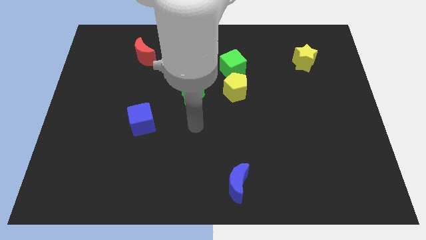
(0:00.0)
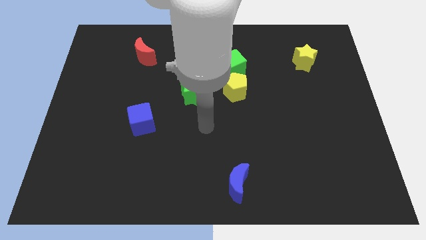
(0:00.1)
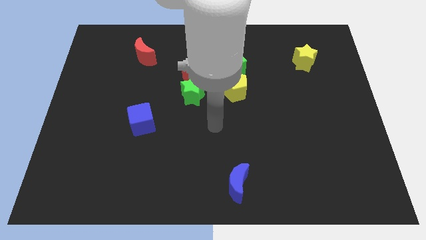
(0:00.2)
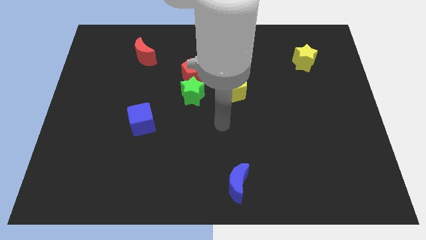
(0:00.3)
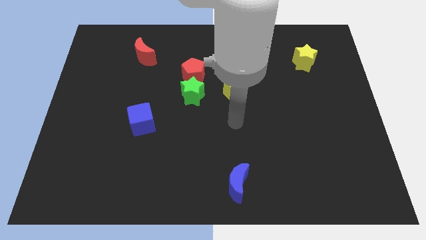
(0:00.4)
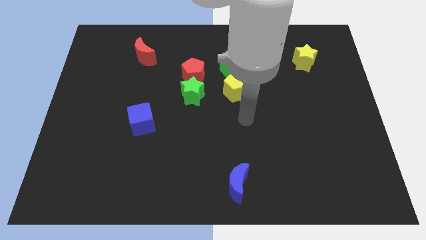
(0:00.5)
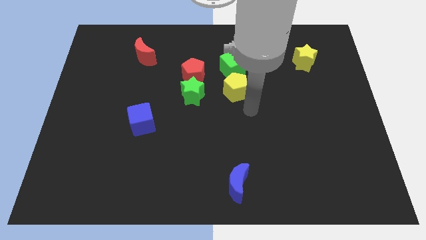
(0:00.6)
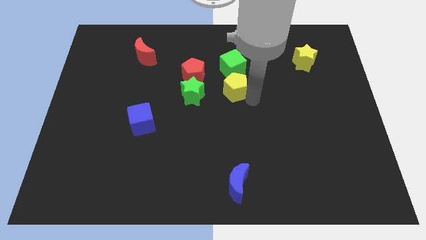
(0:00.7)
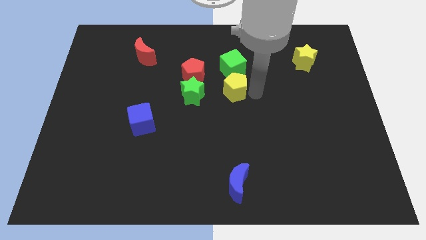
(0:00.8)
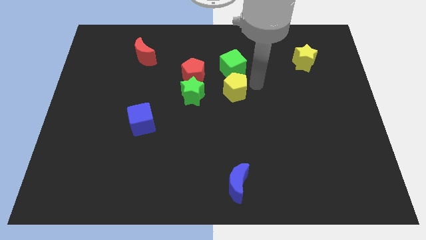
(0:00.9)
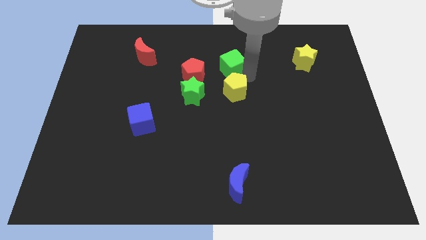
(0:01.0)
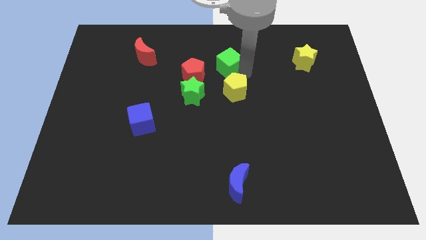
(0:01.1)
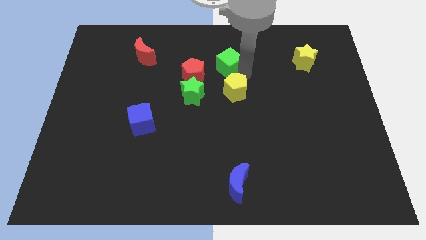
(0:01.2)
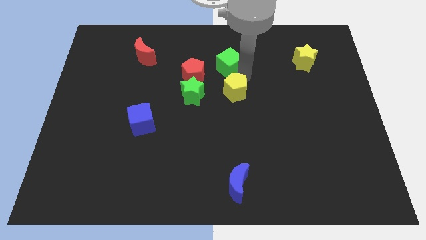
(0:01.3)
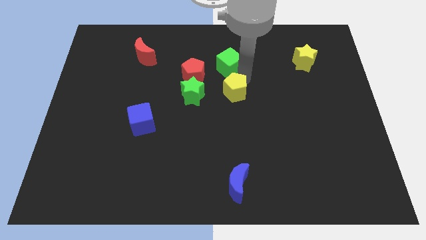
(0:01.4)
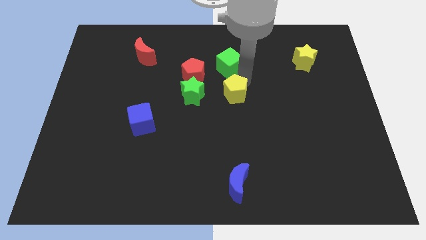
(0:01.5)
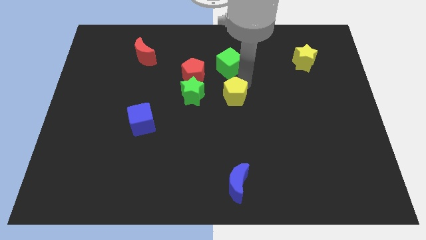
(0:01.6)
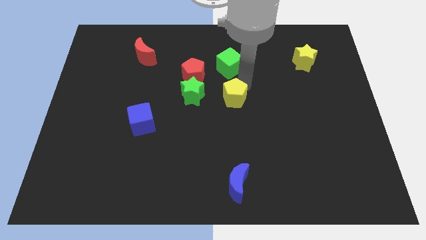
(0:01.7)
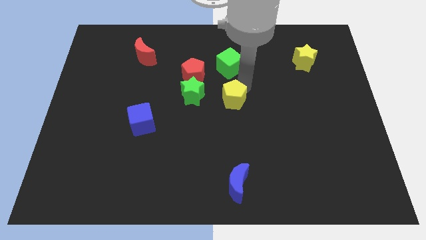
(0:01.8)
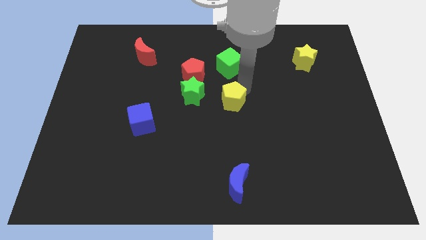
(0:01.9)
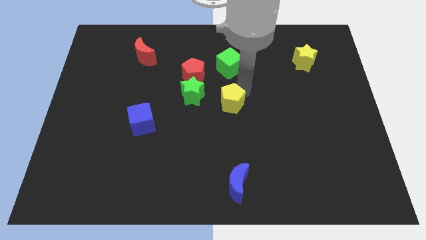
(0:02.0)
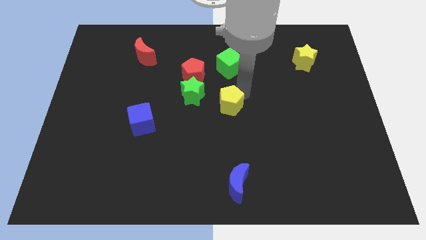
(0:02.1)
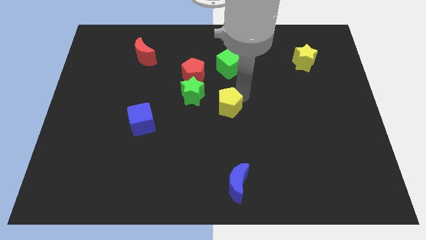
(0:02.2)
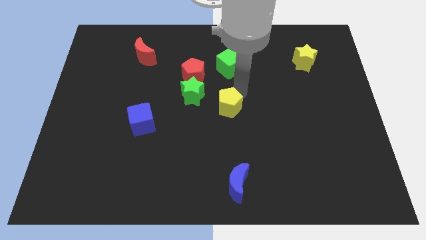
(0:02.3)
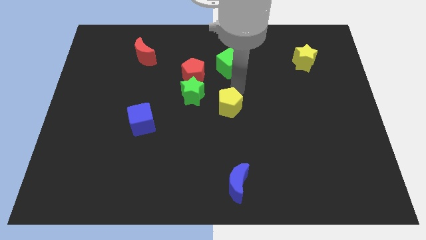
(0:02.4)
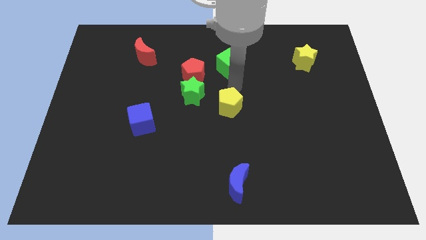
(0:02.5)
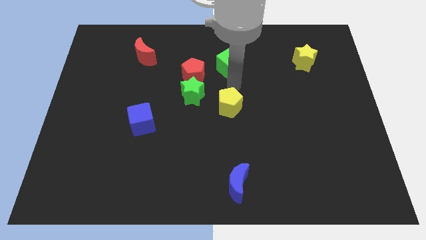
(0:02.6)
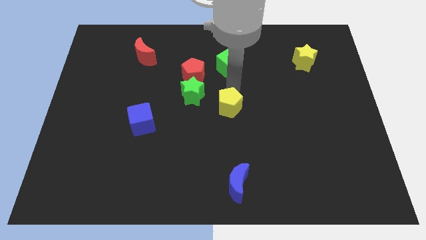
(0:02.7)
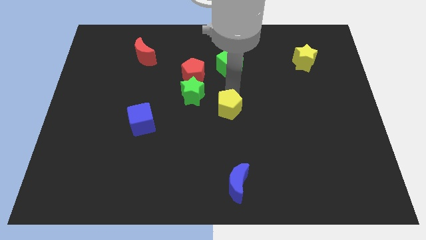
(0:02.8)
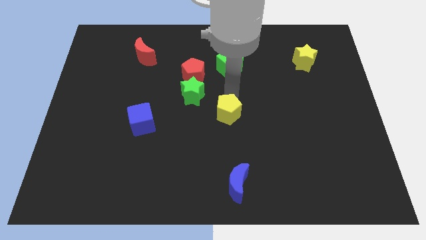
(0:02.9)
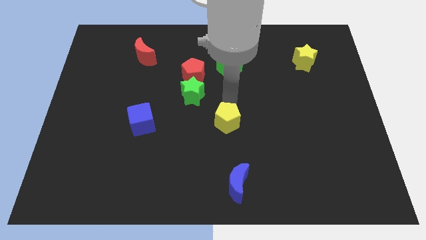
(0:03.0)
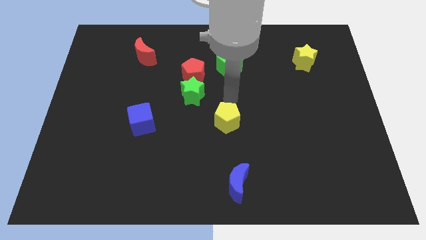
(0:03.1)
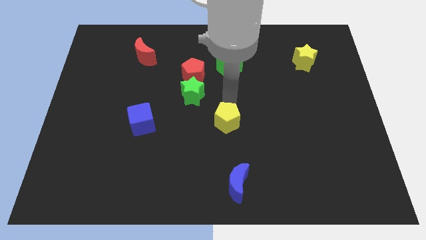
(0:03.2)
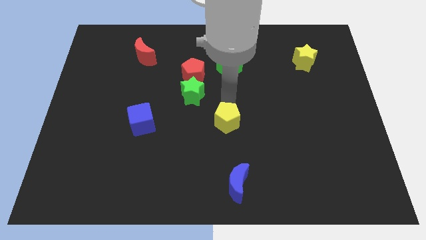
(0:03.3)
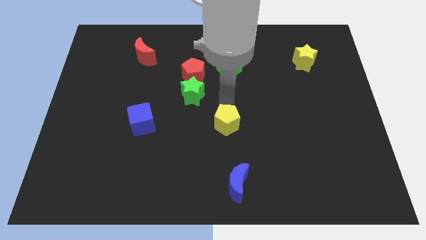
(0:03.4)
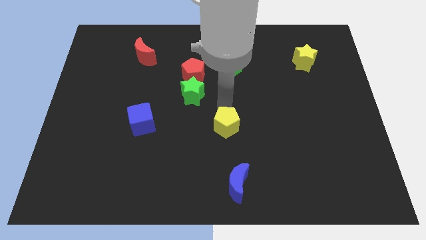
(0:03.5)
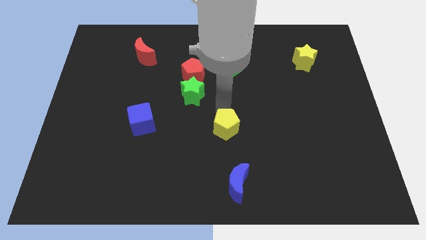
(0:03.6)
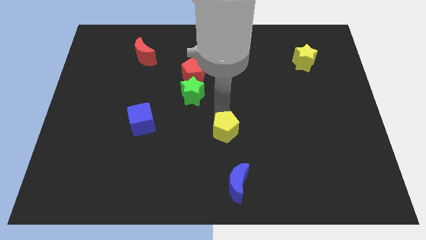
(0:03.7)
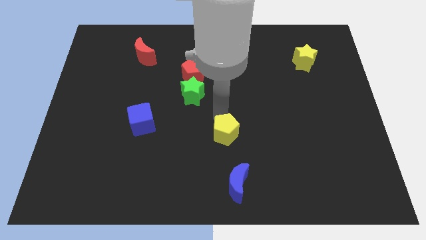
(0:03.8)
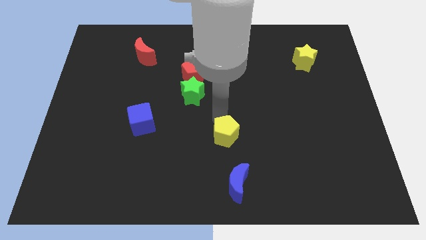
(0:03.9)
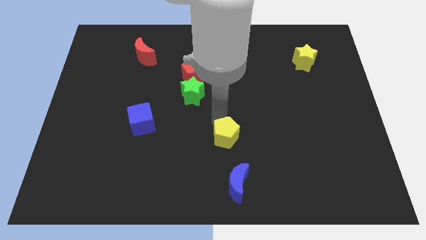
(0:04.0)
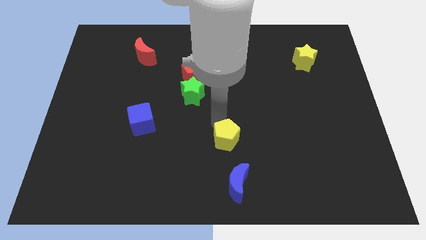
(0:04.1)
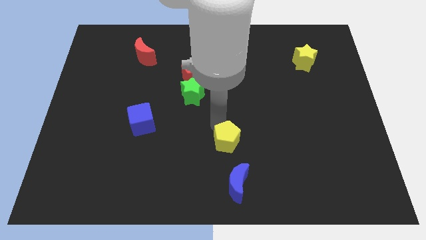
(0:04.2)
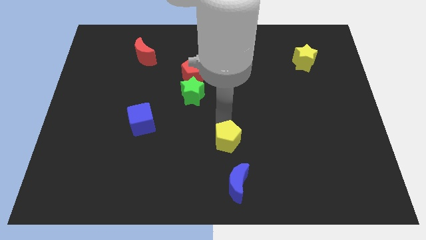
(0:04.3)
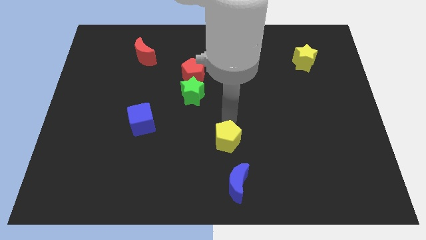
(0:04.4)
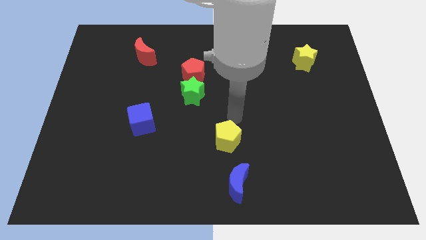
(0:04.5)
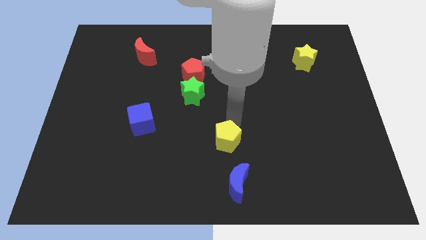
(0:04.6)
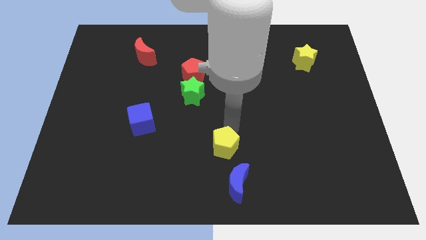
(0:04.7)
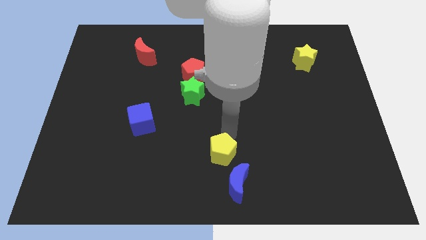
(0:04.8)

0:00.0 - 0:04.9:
slide the yellow pentagon to the bottom

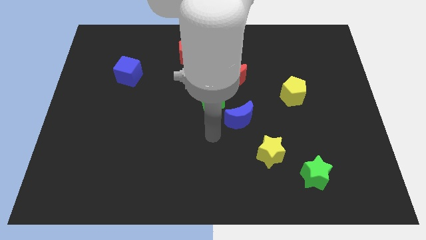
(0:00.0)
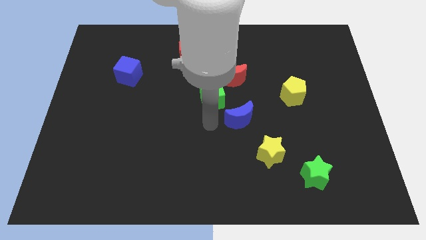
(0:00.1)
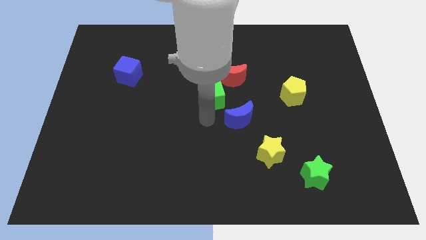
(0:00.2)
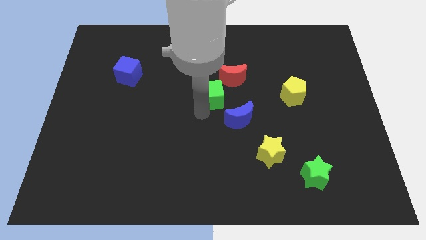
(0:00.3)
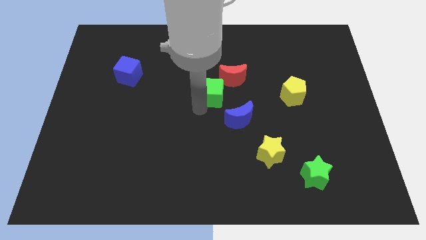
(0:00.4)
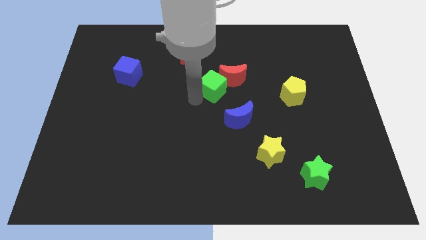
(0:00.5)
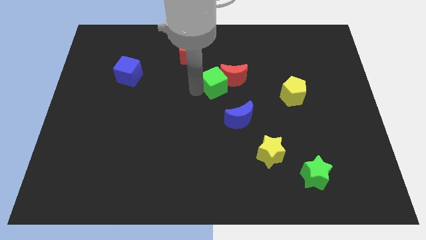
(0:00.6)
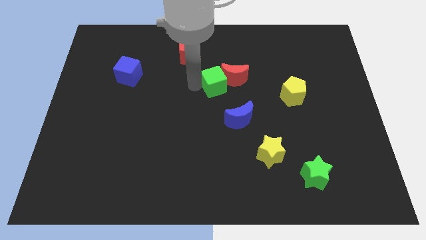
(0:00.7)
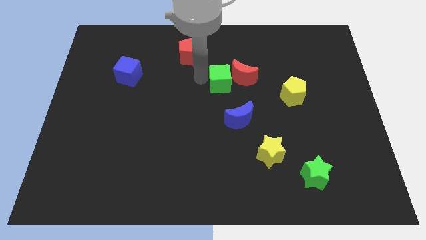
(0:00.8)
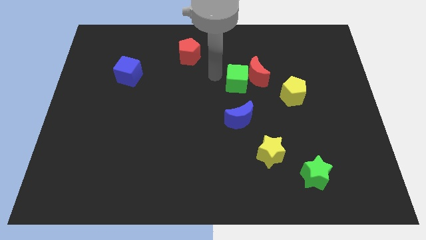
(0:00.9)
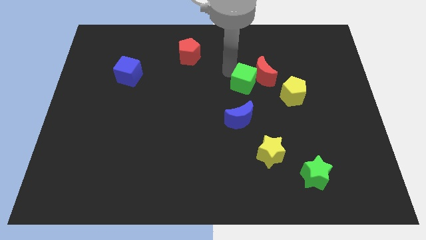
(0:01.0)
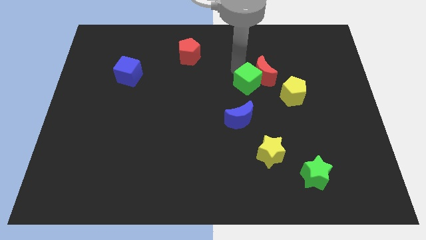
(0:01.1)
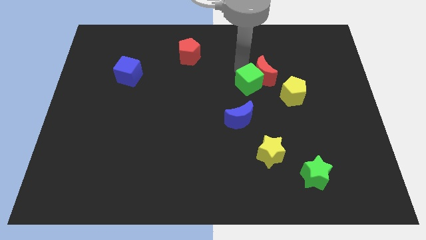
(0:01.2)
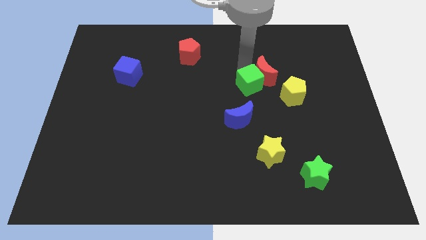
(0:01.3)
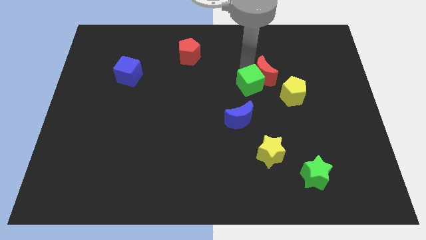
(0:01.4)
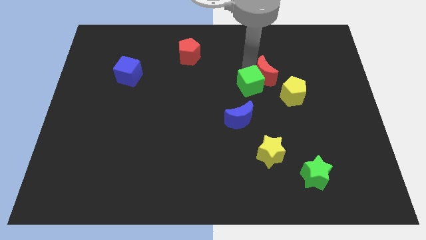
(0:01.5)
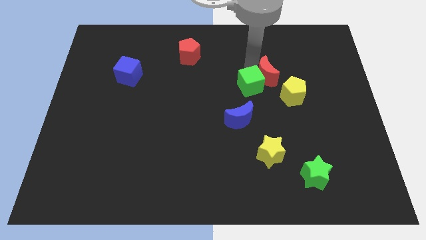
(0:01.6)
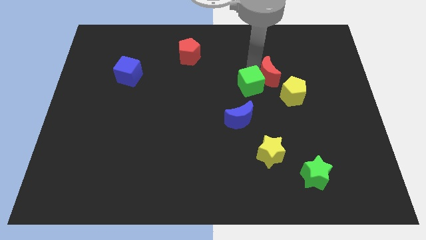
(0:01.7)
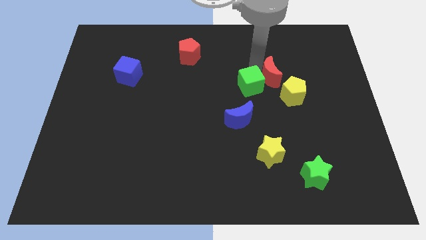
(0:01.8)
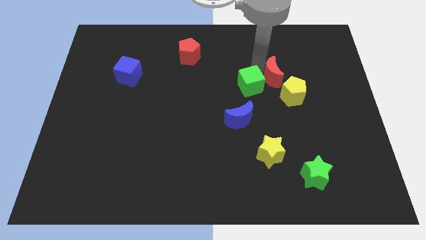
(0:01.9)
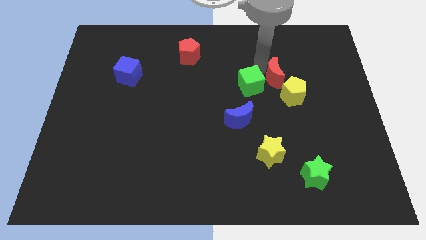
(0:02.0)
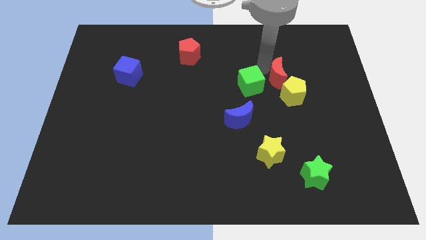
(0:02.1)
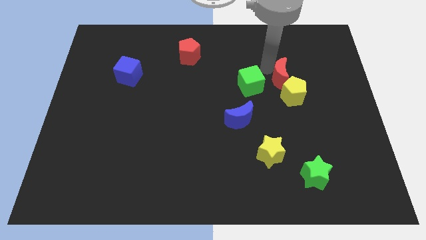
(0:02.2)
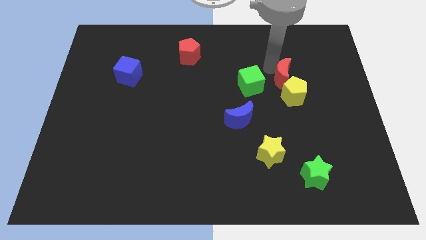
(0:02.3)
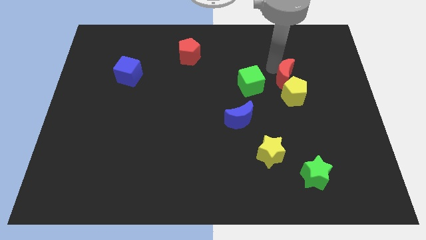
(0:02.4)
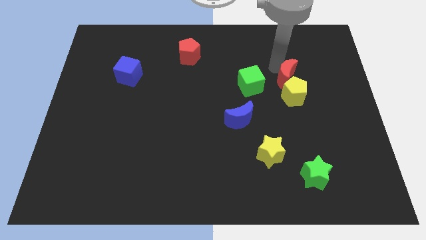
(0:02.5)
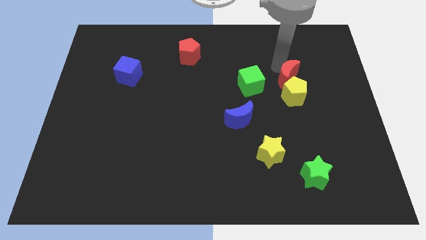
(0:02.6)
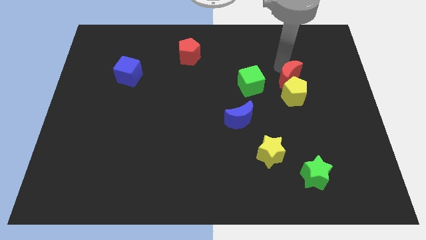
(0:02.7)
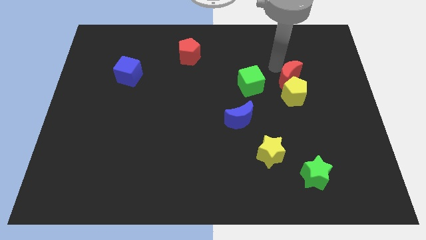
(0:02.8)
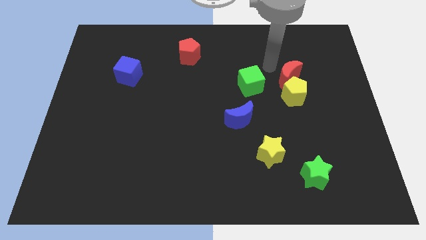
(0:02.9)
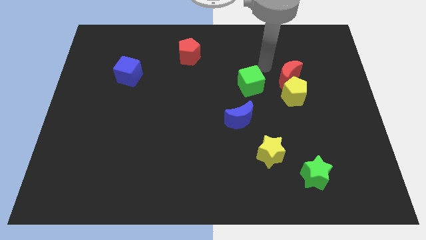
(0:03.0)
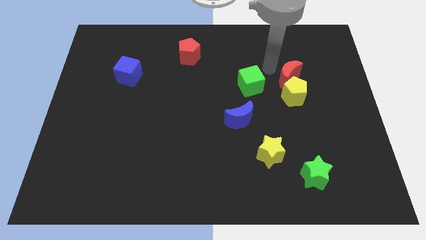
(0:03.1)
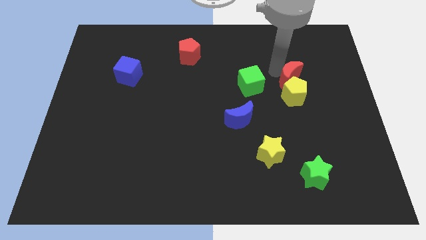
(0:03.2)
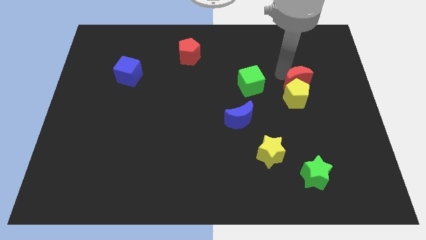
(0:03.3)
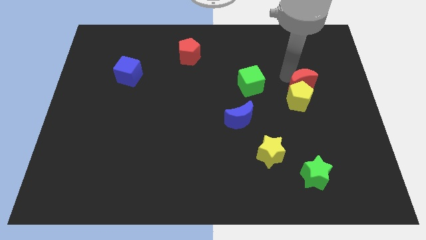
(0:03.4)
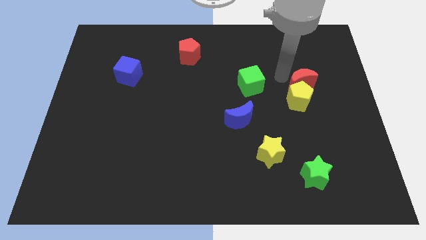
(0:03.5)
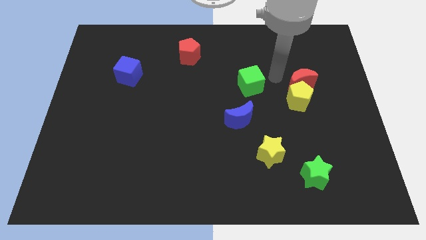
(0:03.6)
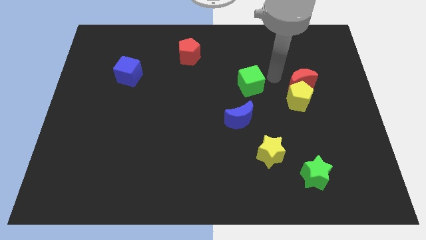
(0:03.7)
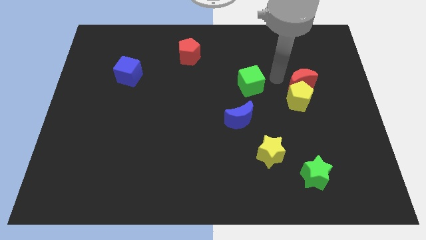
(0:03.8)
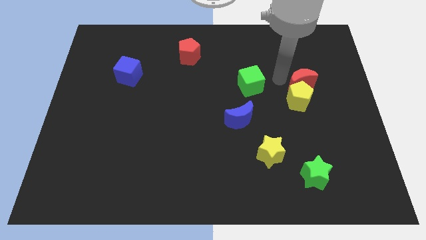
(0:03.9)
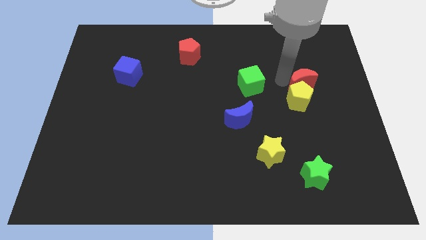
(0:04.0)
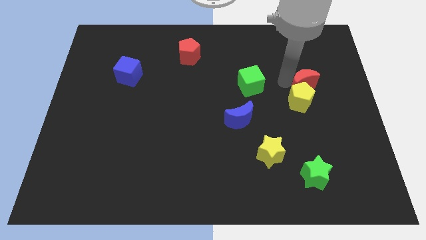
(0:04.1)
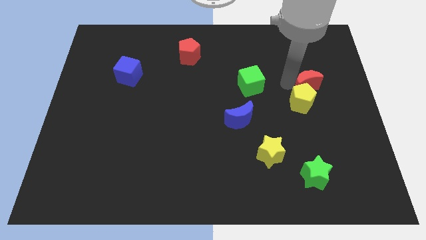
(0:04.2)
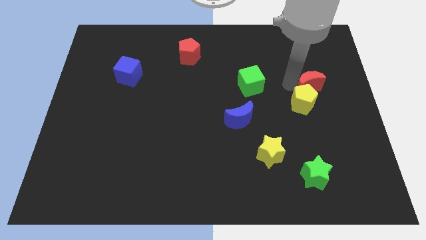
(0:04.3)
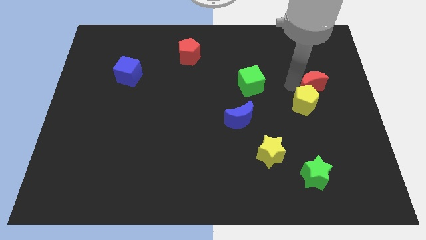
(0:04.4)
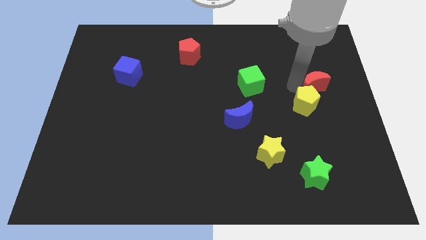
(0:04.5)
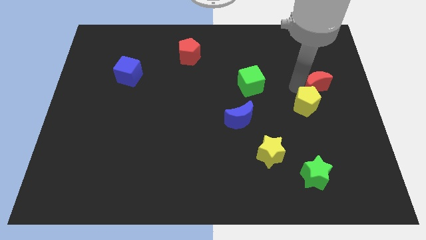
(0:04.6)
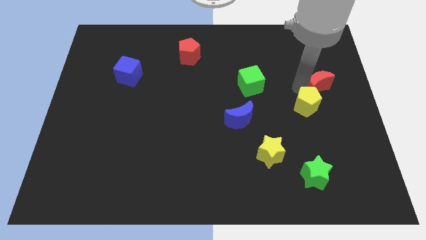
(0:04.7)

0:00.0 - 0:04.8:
push the red moon to the center right
